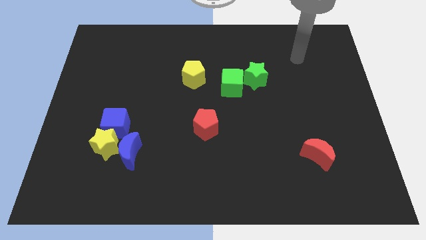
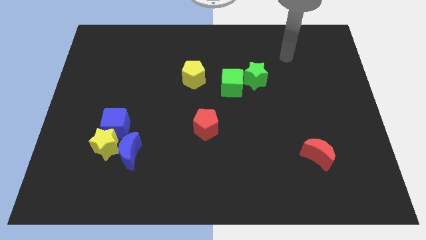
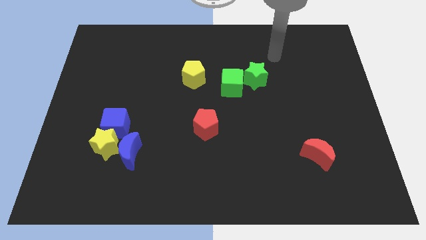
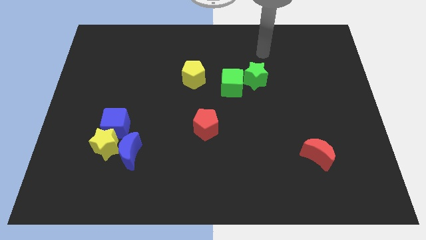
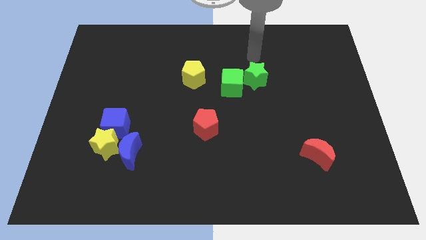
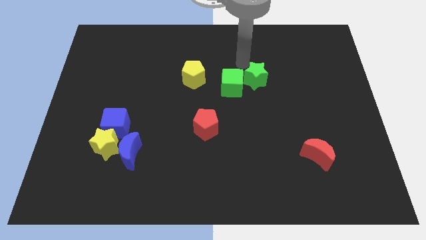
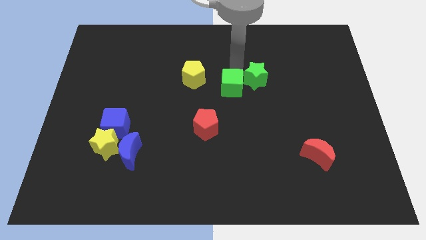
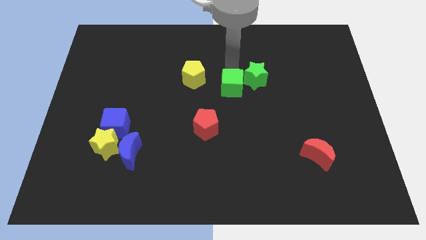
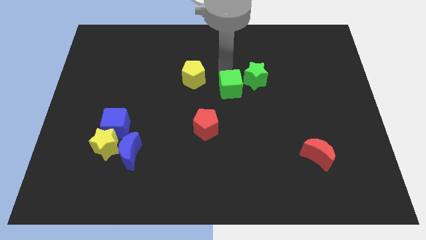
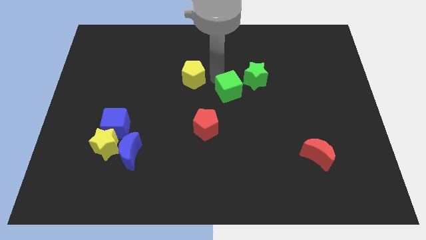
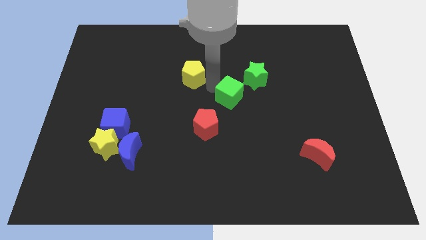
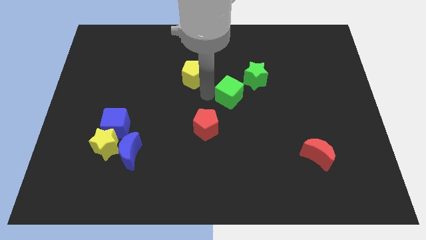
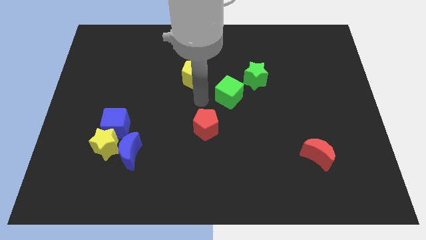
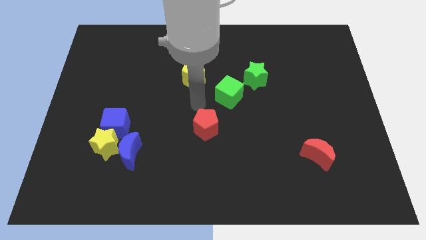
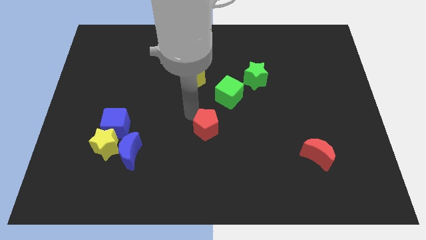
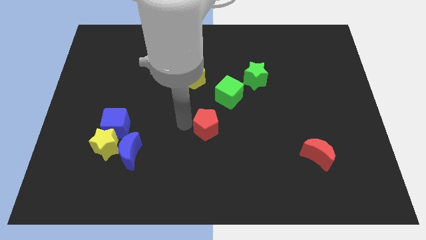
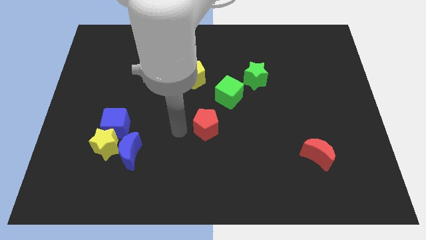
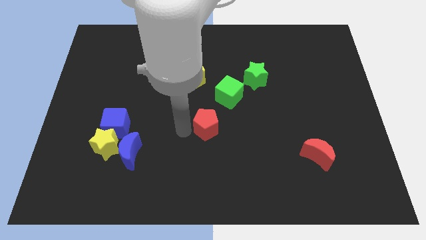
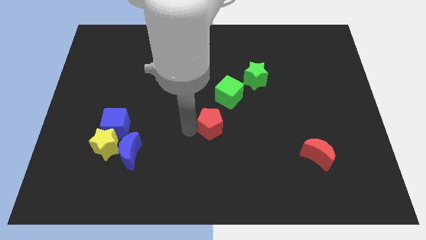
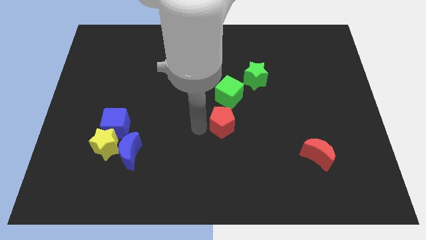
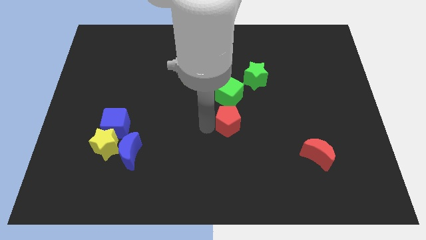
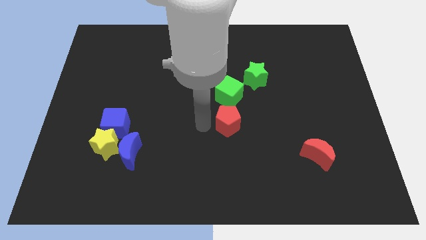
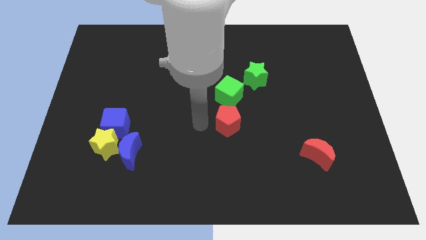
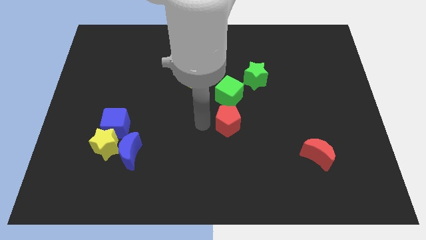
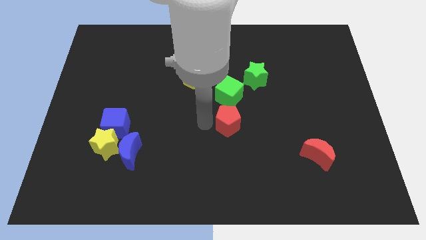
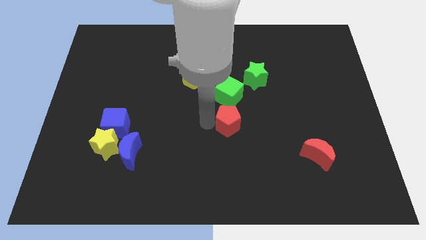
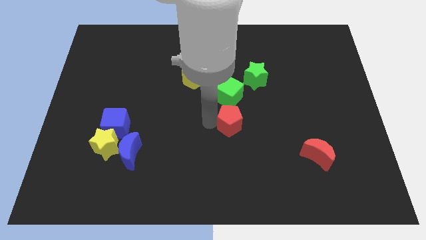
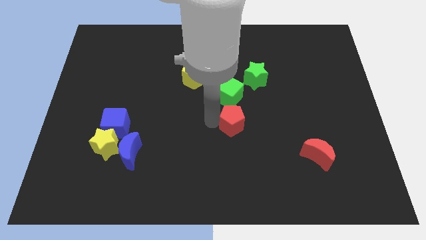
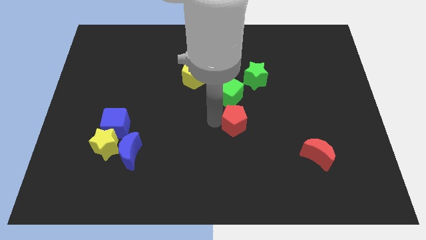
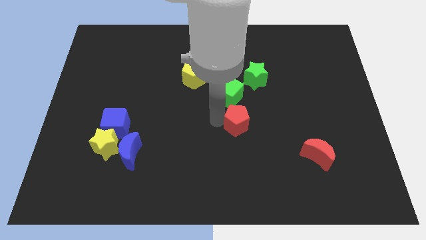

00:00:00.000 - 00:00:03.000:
move the red pentagon somewhat right

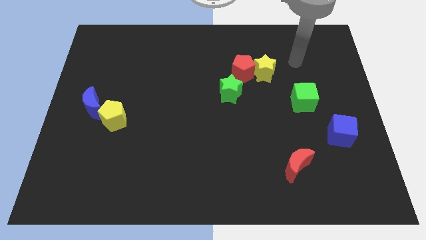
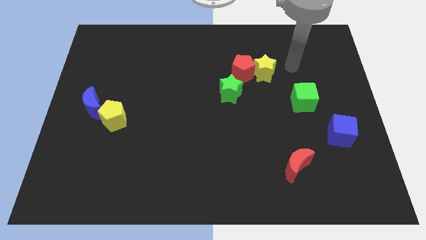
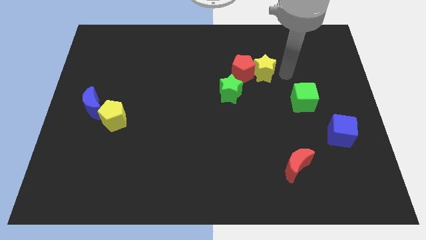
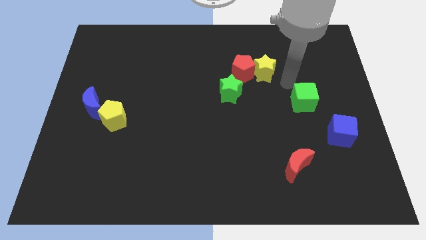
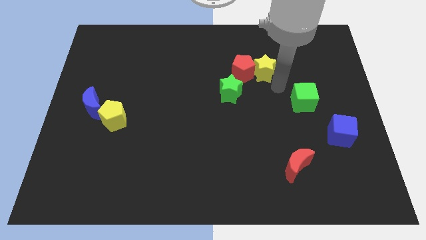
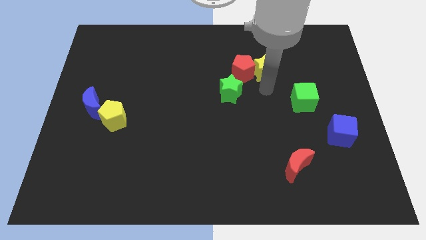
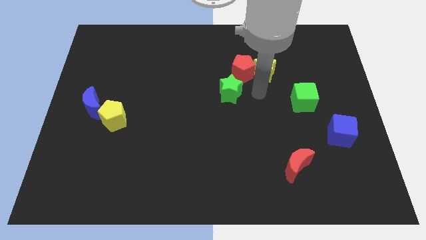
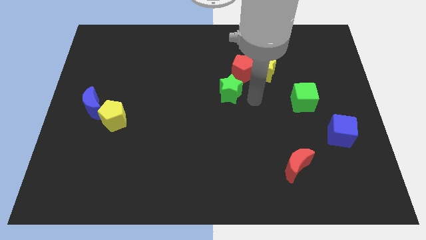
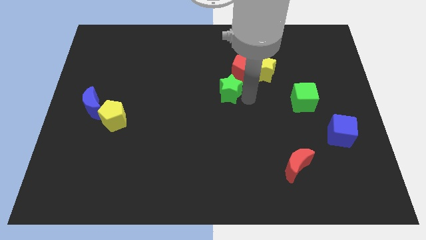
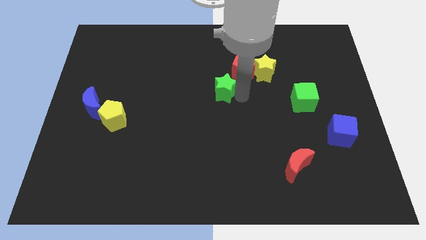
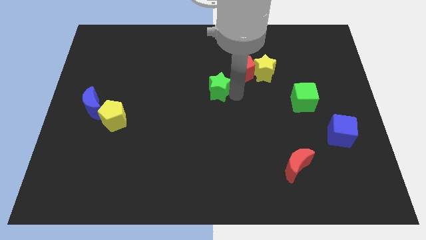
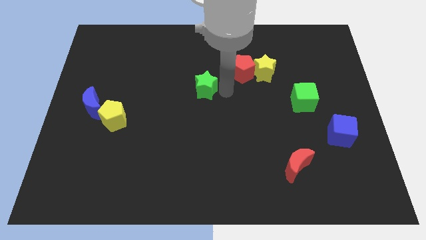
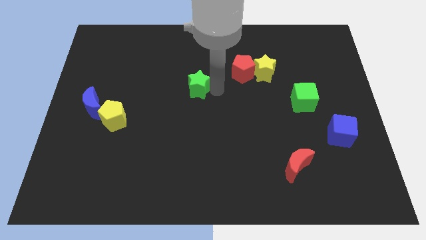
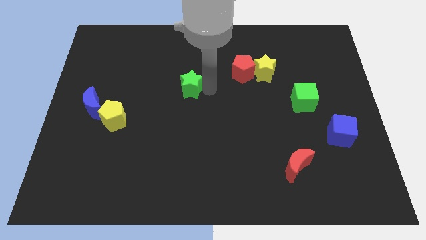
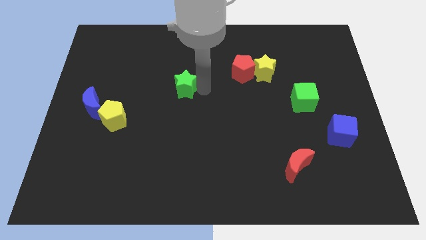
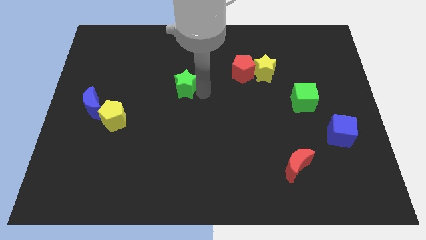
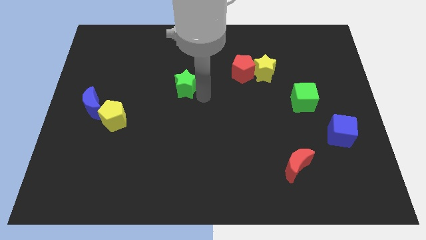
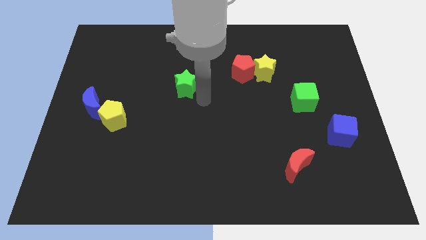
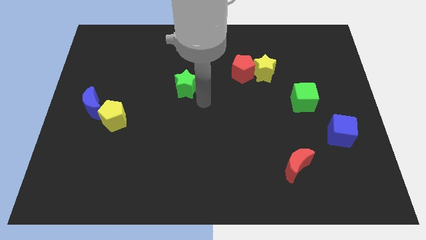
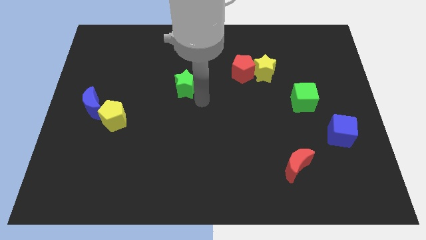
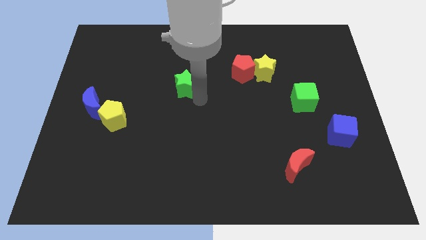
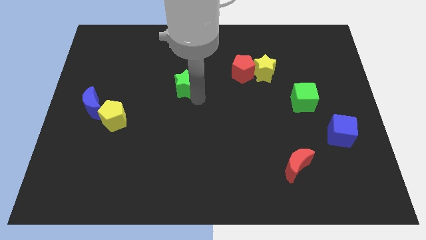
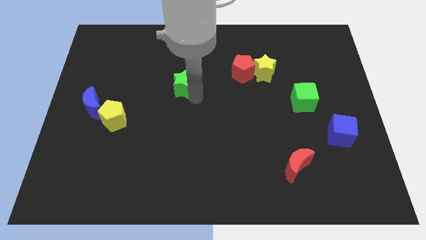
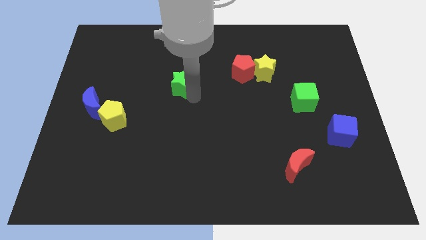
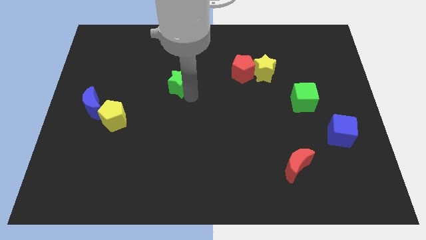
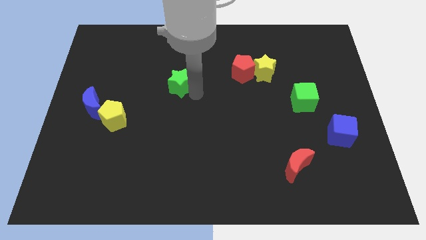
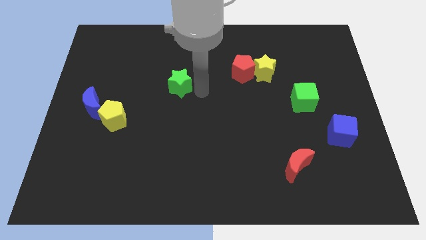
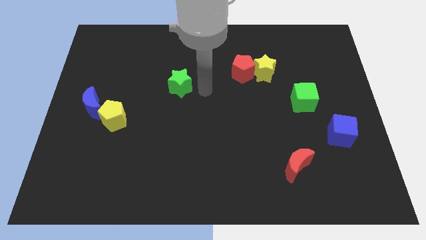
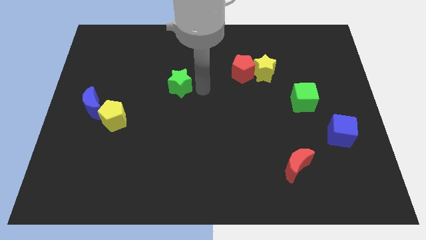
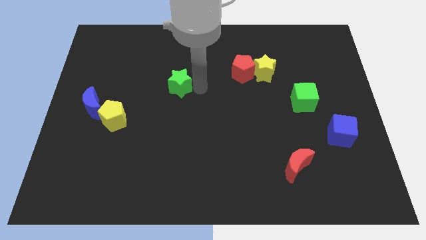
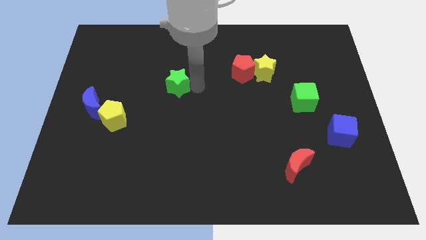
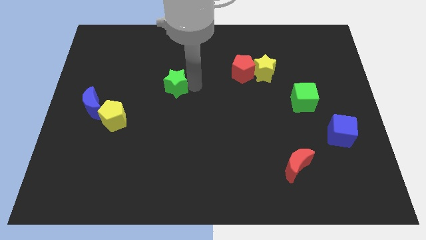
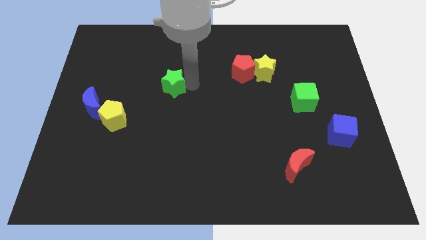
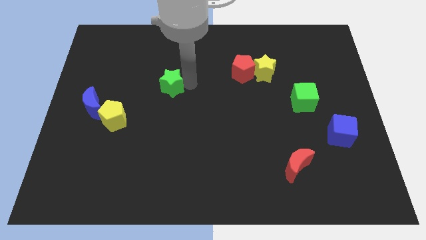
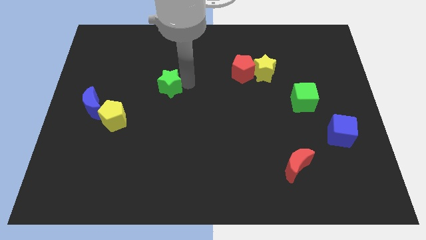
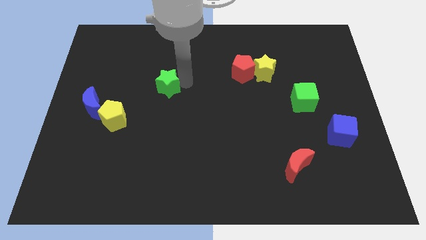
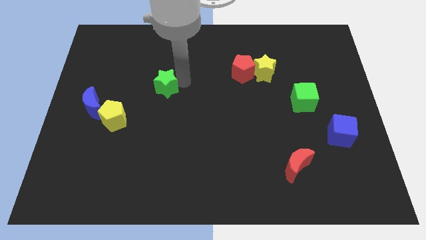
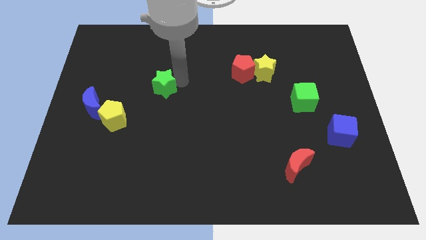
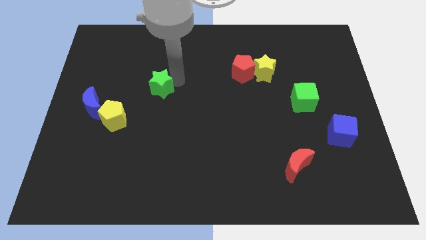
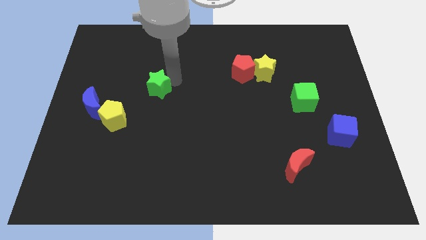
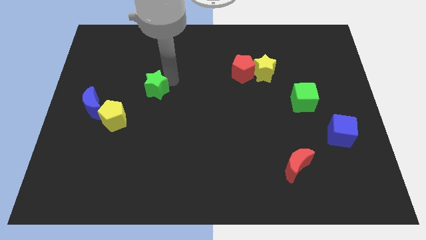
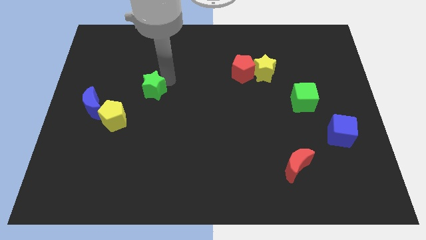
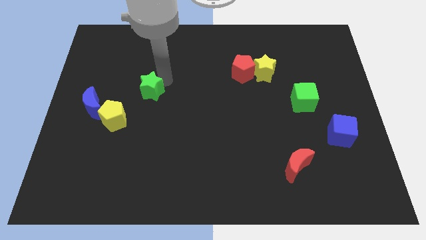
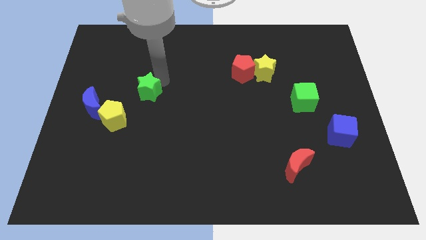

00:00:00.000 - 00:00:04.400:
slide the green star to the left

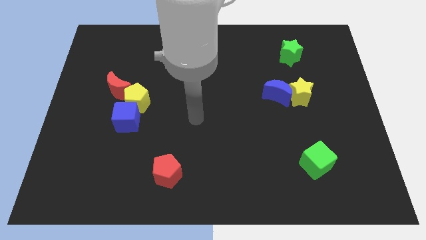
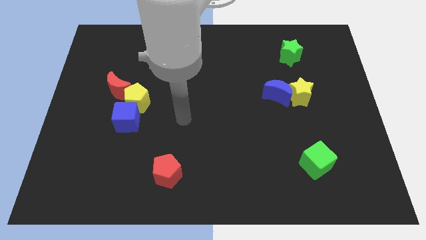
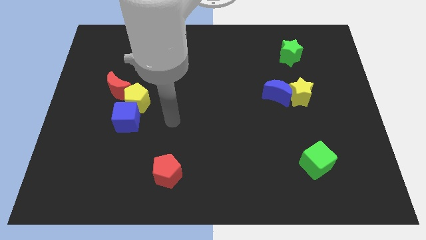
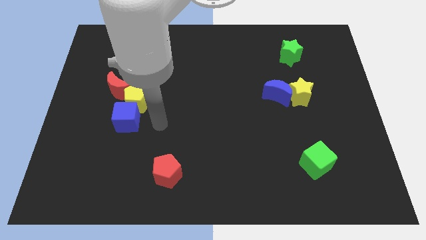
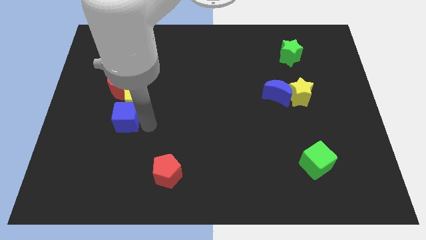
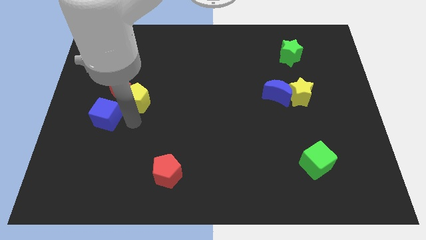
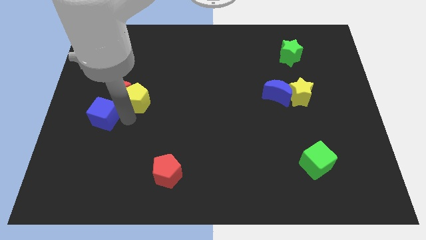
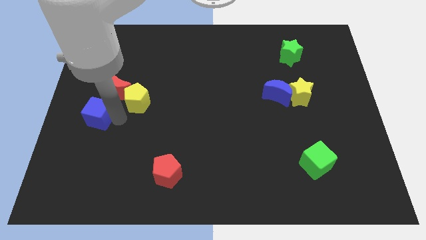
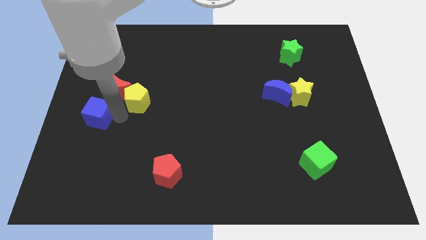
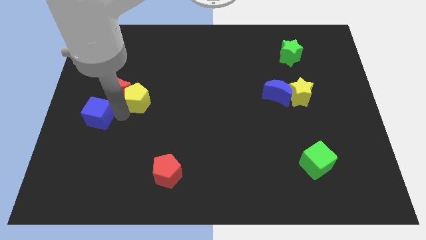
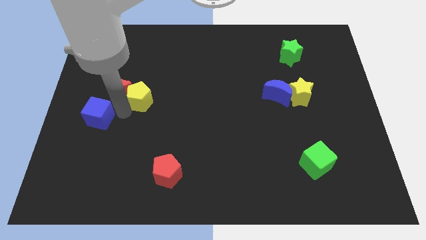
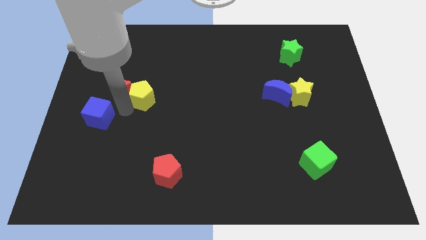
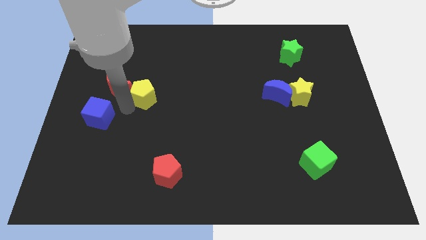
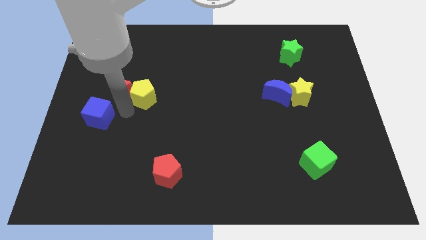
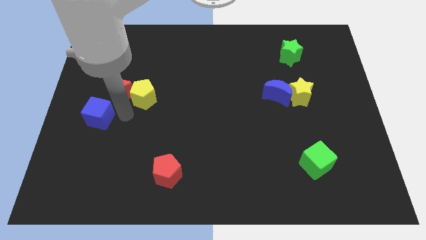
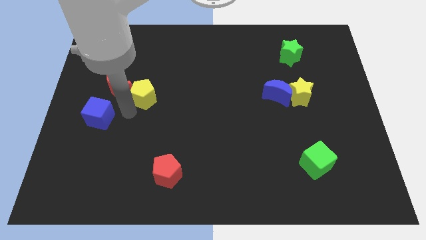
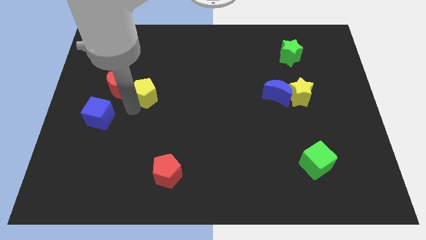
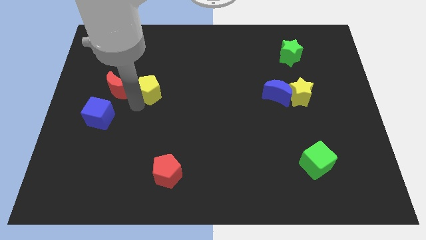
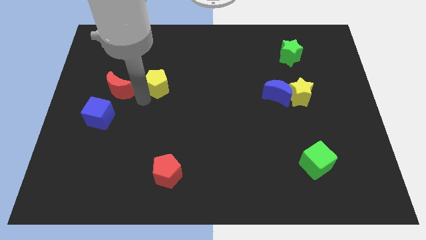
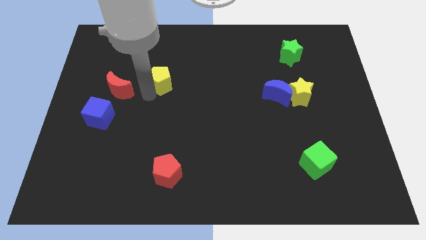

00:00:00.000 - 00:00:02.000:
slightly move the yellow pentagon upwards and right
